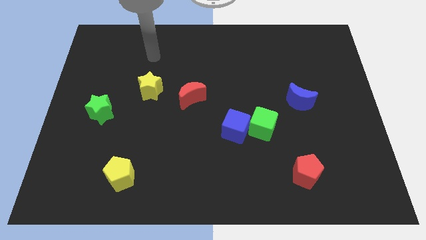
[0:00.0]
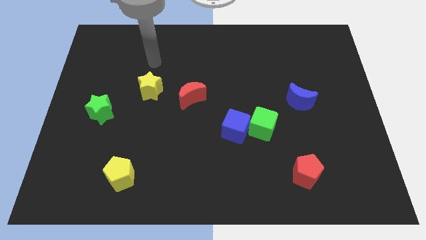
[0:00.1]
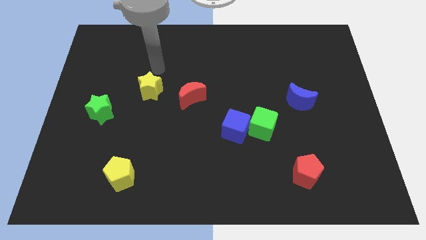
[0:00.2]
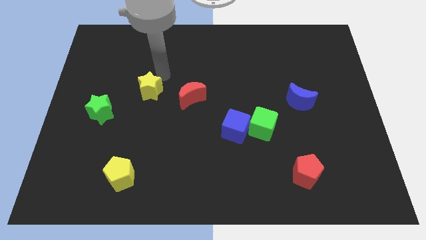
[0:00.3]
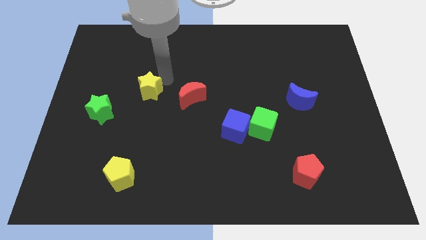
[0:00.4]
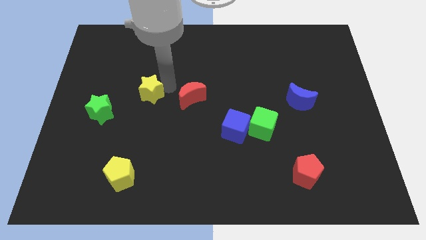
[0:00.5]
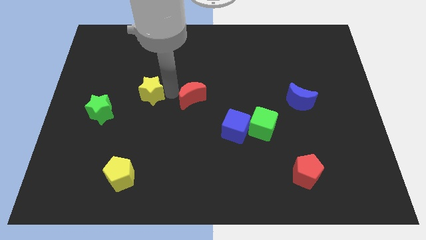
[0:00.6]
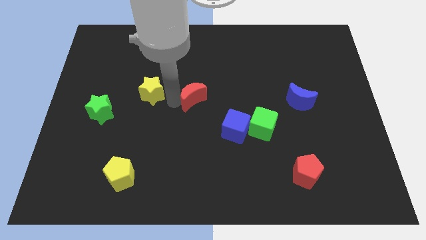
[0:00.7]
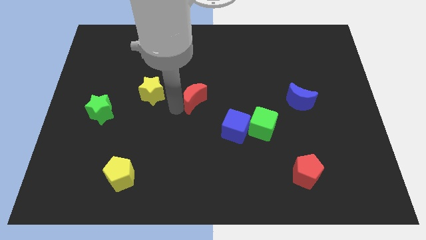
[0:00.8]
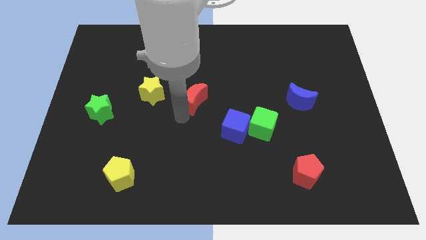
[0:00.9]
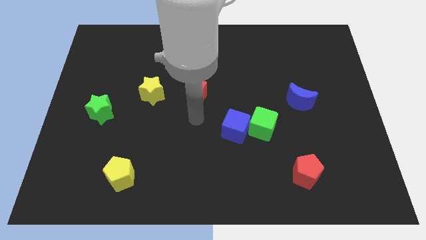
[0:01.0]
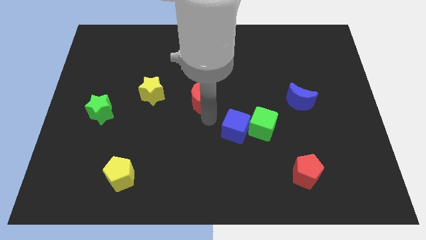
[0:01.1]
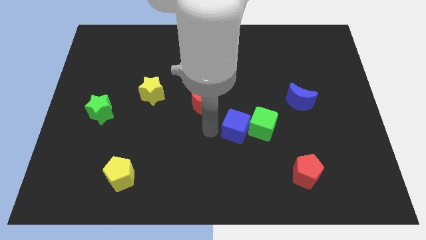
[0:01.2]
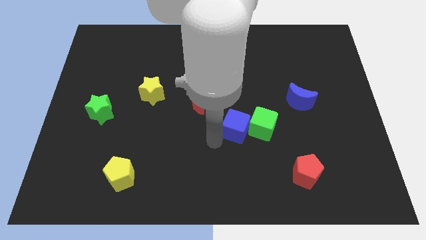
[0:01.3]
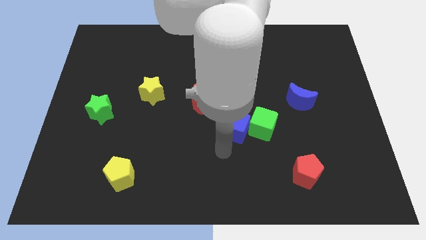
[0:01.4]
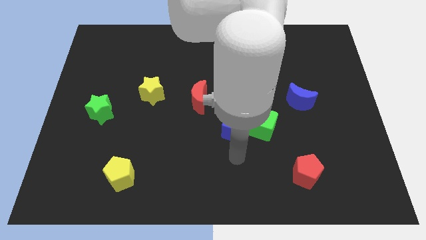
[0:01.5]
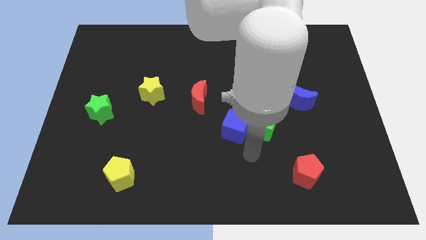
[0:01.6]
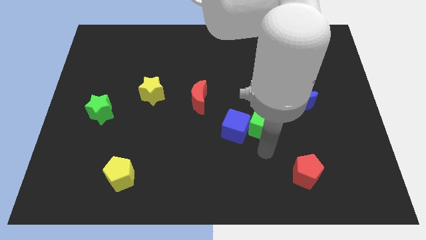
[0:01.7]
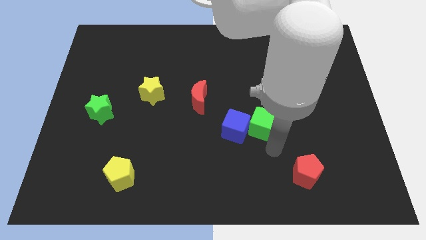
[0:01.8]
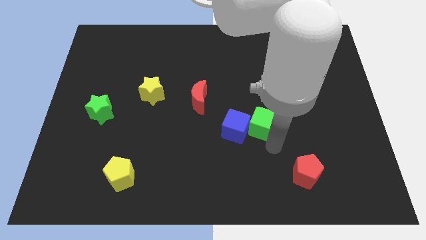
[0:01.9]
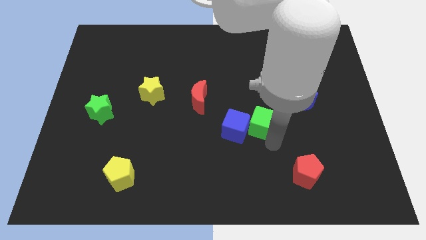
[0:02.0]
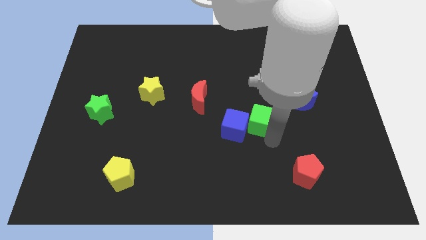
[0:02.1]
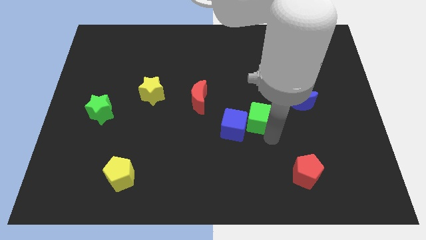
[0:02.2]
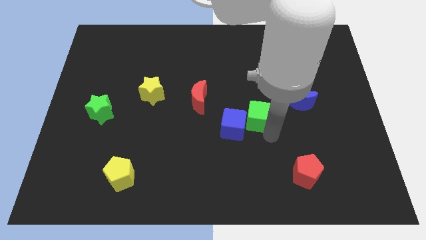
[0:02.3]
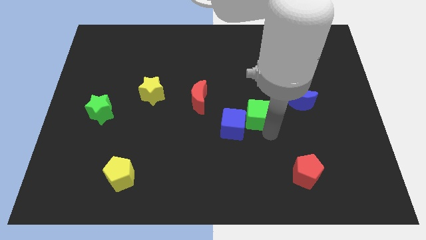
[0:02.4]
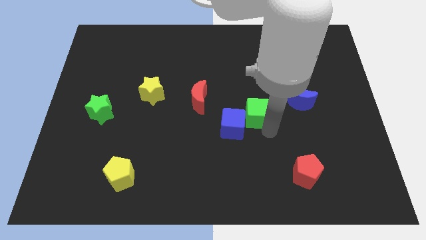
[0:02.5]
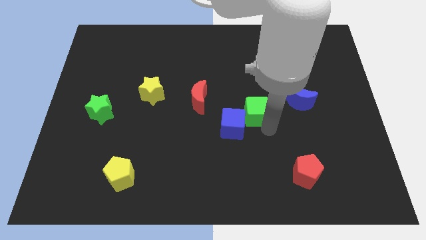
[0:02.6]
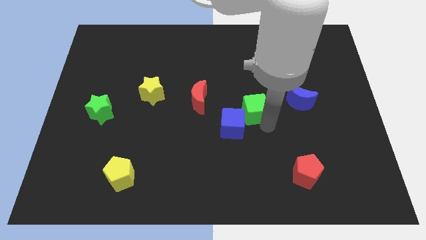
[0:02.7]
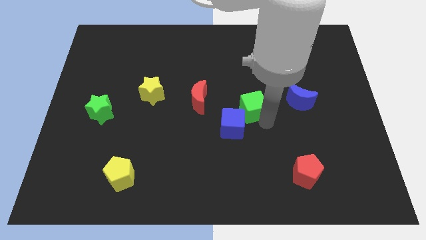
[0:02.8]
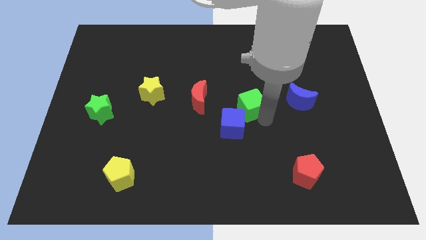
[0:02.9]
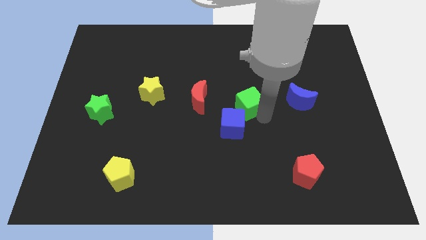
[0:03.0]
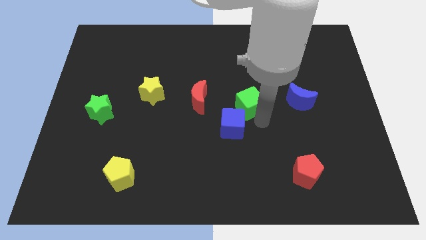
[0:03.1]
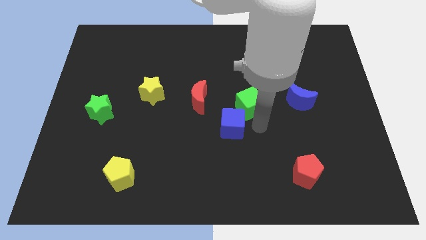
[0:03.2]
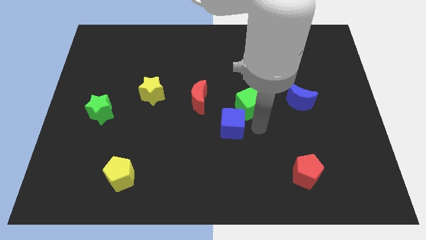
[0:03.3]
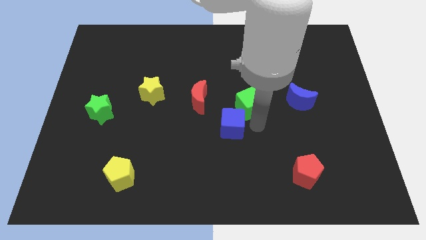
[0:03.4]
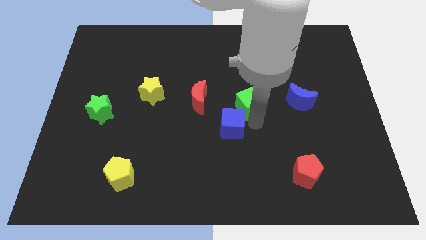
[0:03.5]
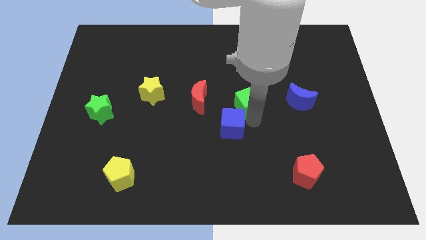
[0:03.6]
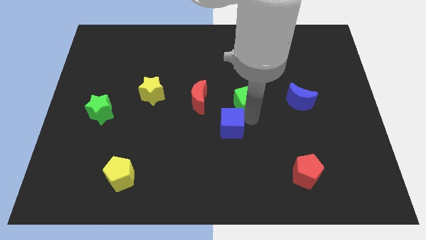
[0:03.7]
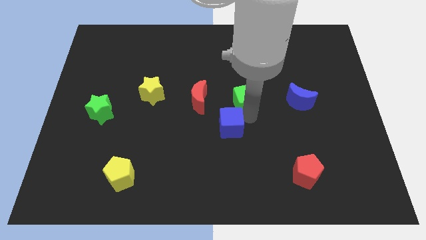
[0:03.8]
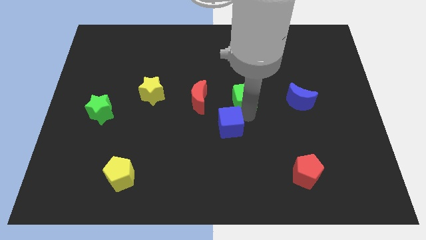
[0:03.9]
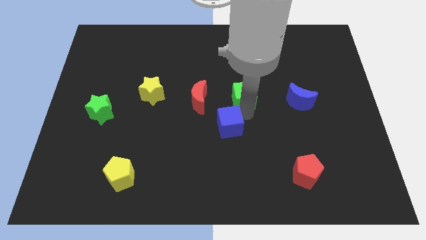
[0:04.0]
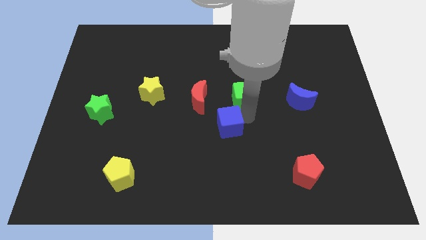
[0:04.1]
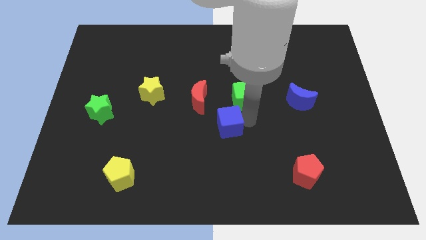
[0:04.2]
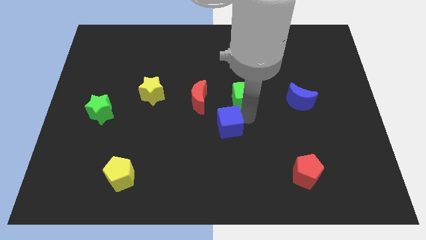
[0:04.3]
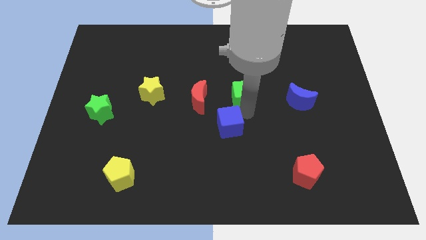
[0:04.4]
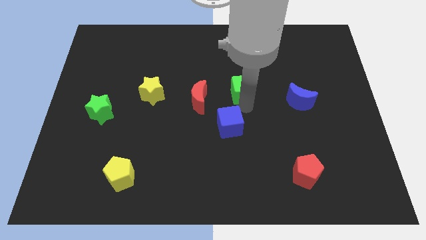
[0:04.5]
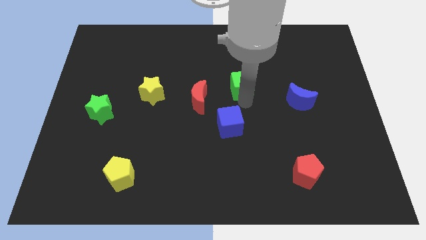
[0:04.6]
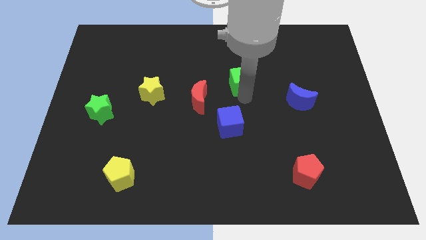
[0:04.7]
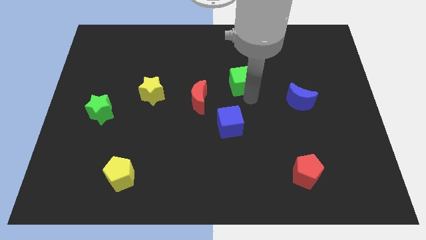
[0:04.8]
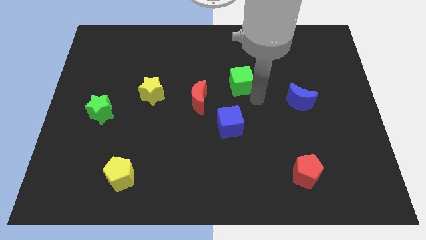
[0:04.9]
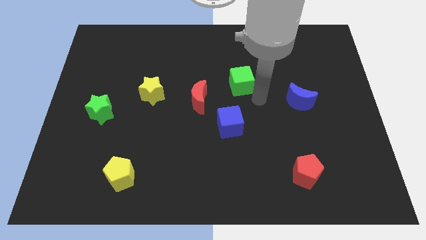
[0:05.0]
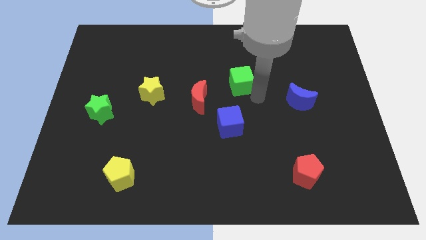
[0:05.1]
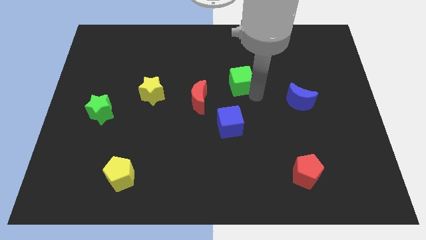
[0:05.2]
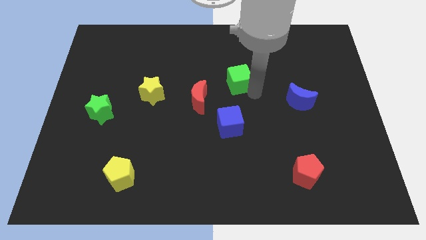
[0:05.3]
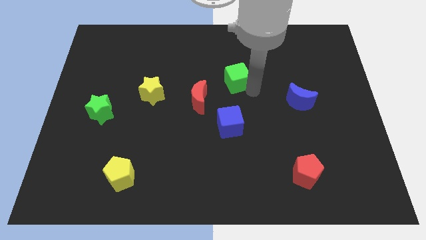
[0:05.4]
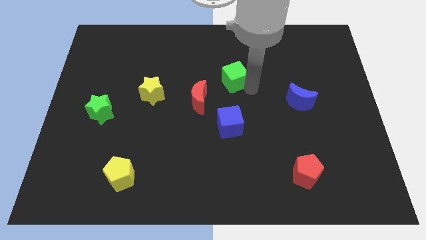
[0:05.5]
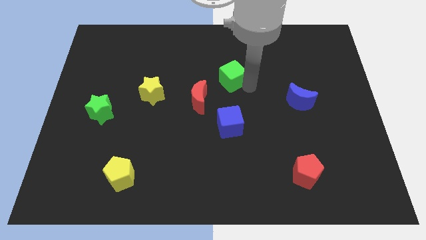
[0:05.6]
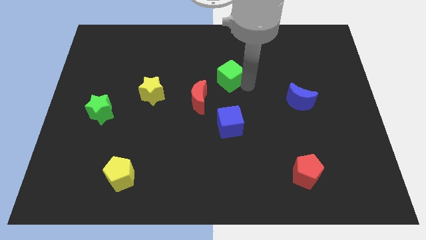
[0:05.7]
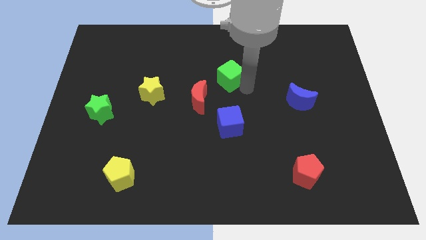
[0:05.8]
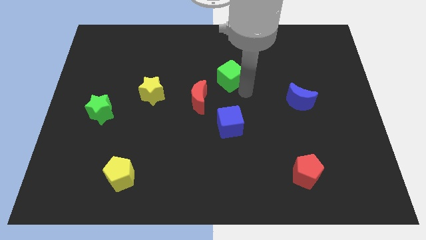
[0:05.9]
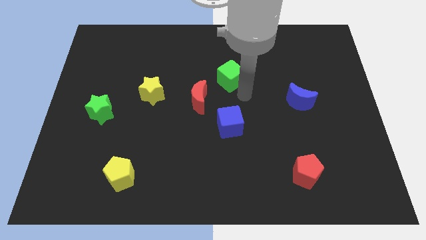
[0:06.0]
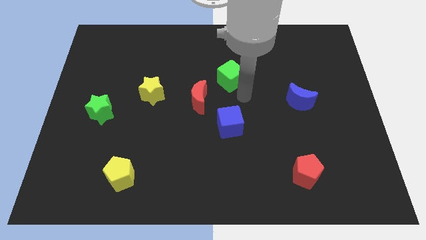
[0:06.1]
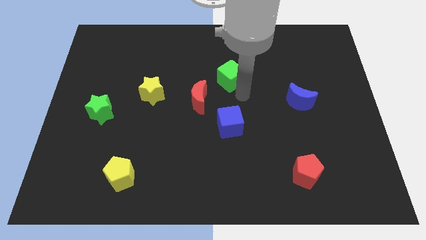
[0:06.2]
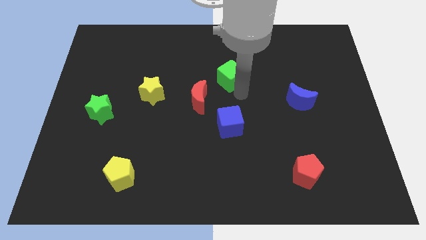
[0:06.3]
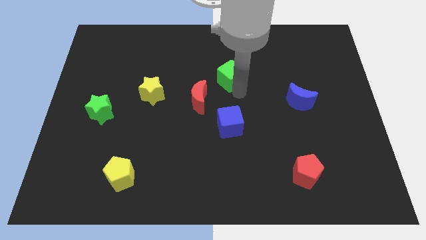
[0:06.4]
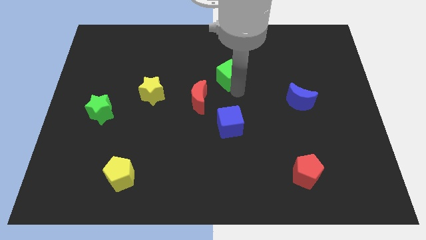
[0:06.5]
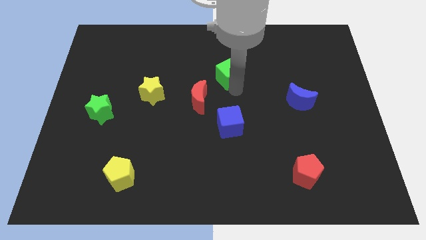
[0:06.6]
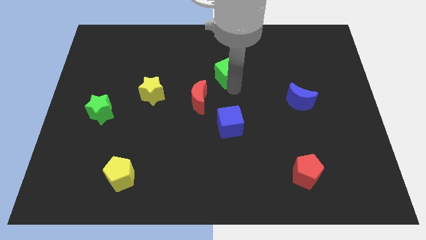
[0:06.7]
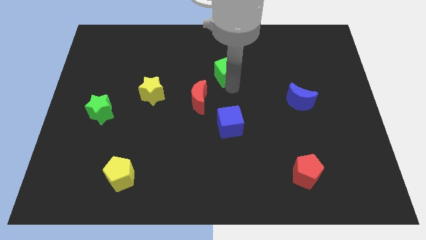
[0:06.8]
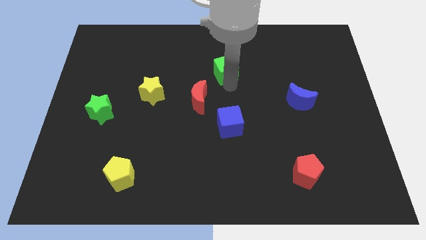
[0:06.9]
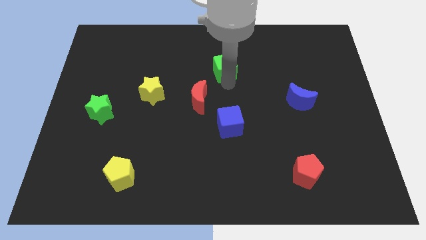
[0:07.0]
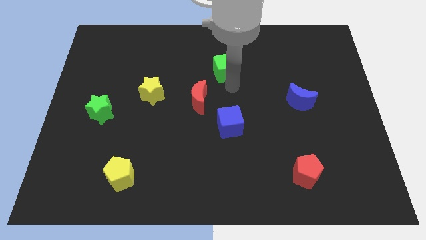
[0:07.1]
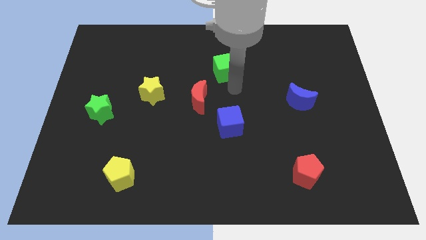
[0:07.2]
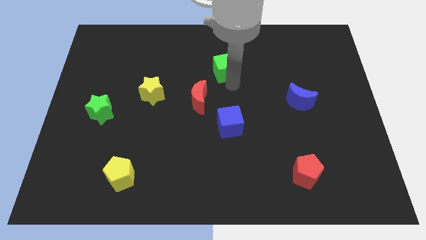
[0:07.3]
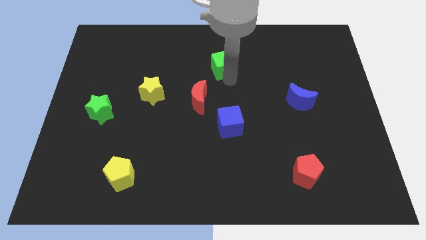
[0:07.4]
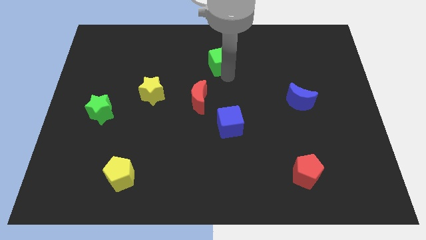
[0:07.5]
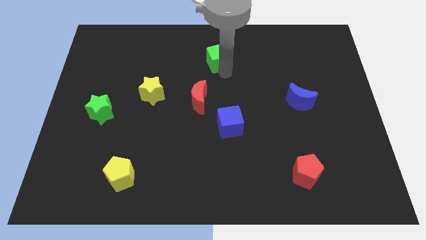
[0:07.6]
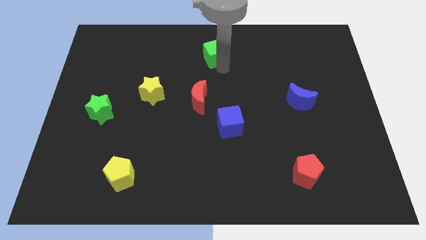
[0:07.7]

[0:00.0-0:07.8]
put the green cube to the top
